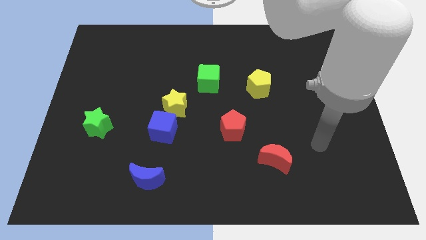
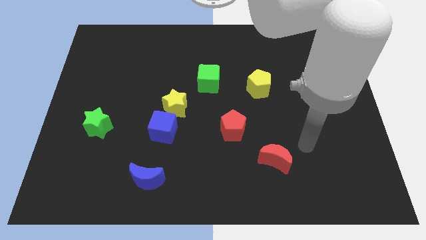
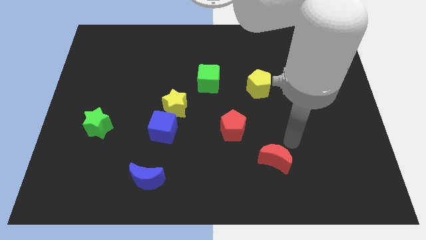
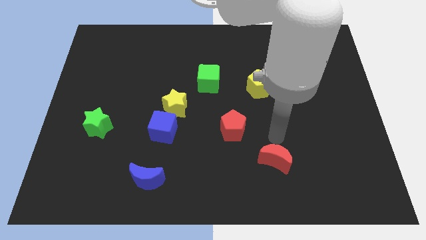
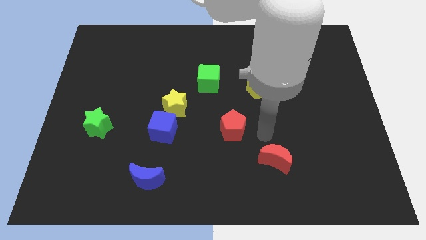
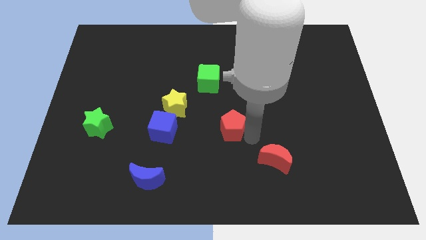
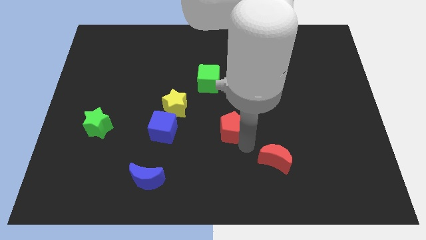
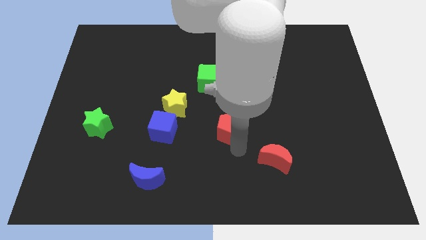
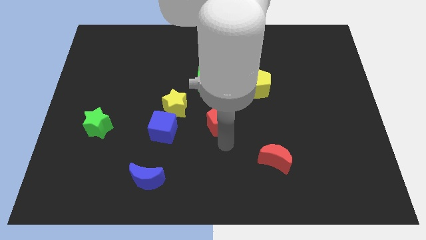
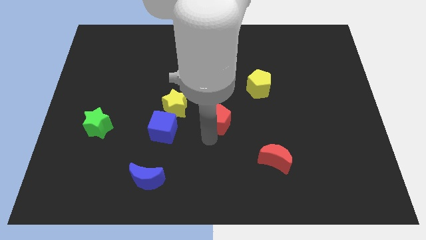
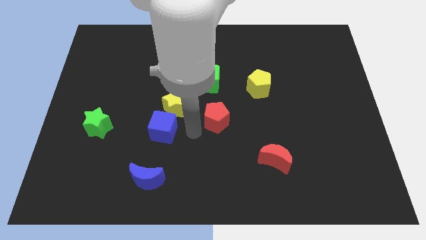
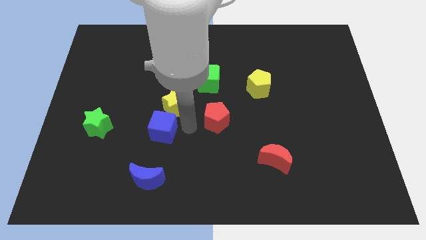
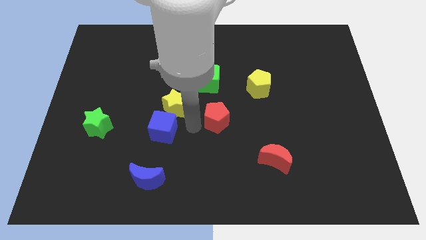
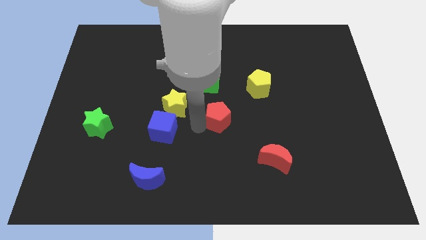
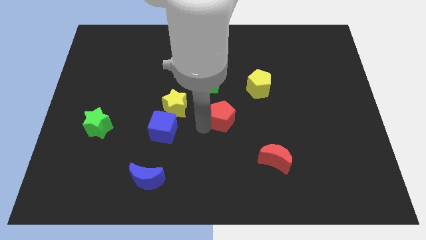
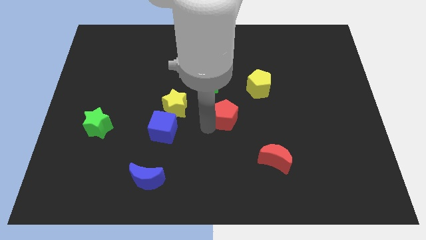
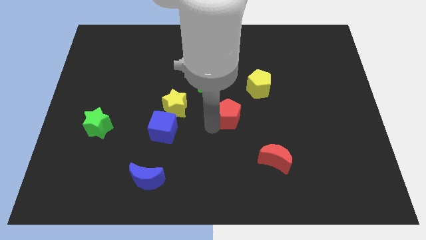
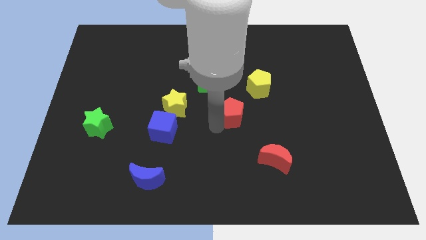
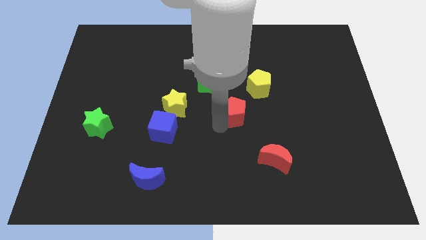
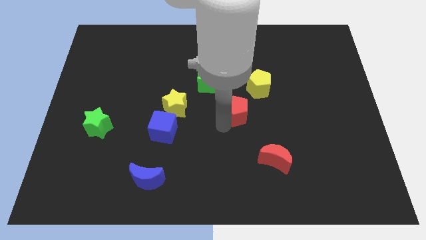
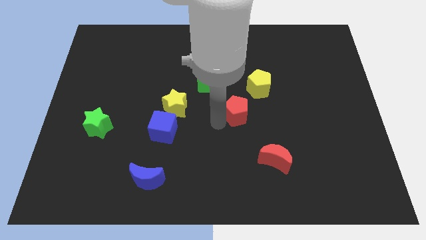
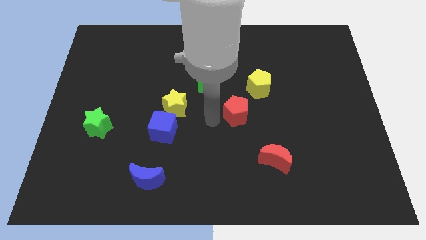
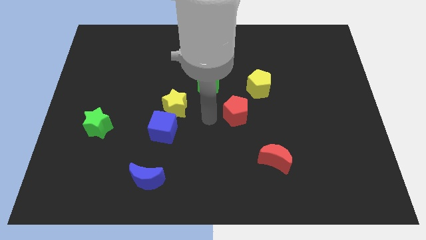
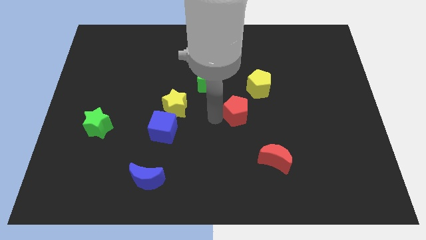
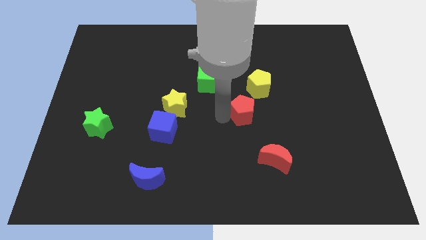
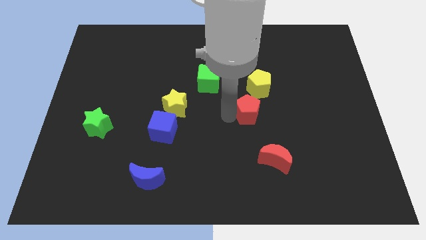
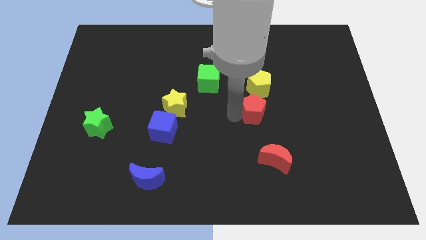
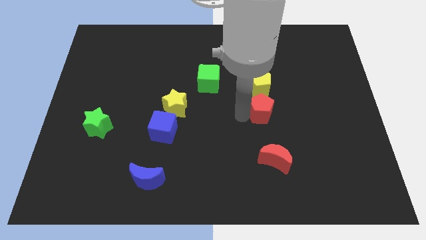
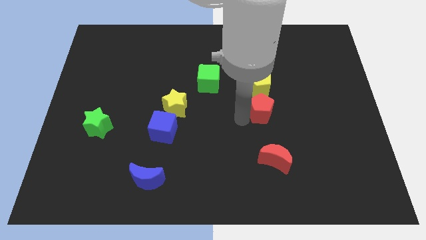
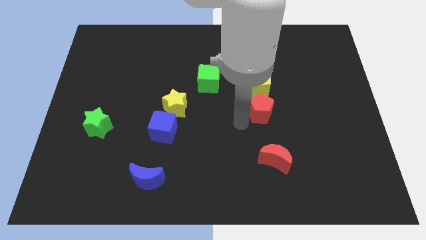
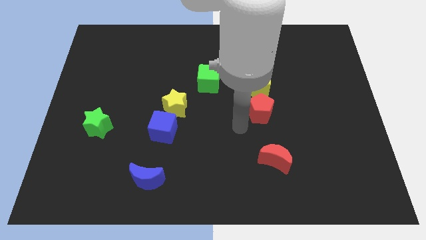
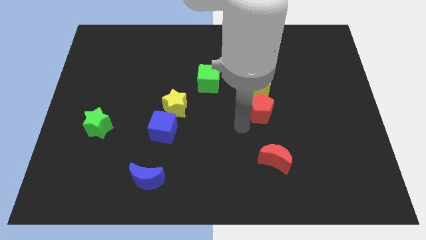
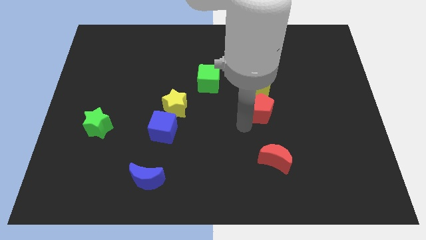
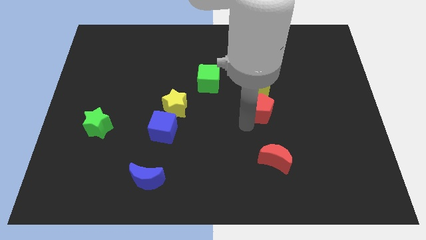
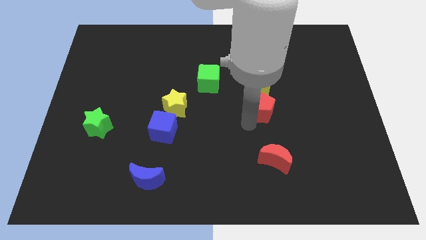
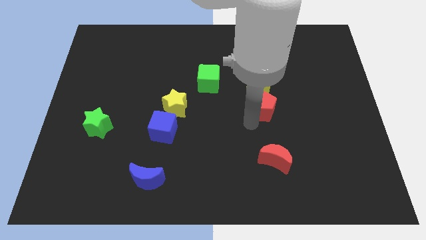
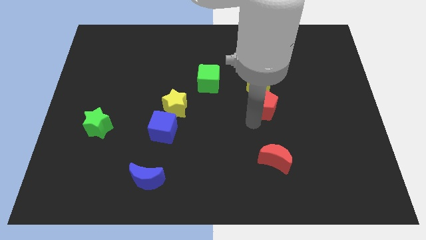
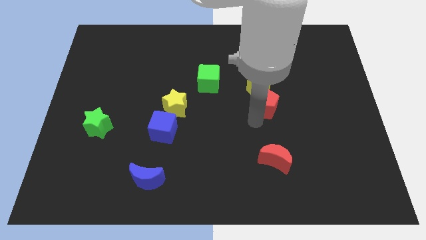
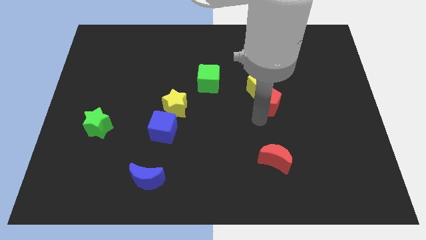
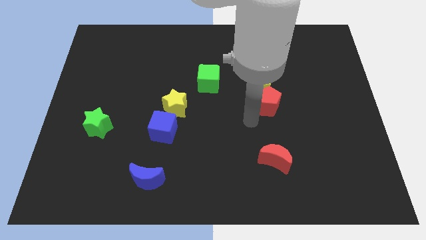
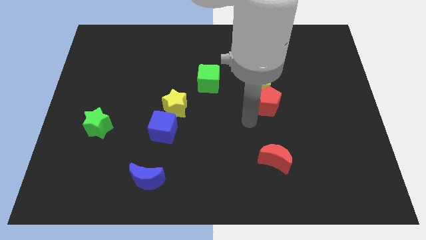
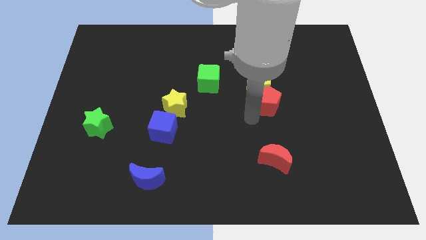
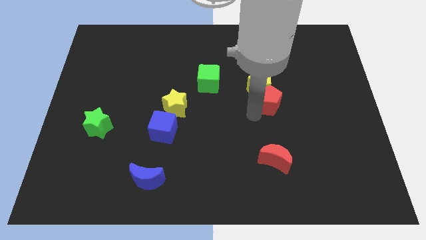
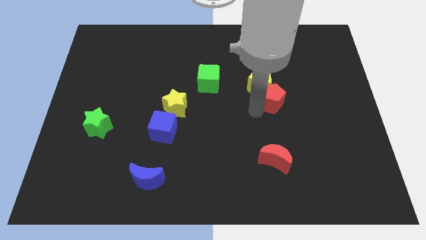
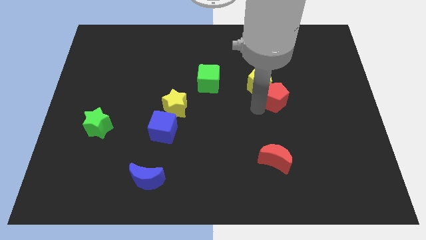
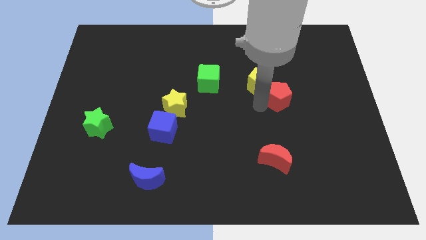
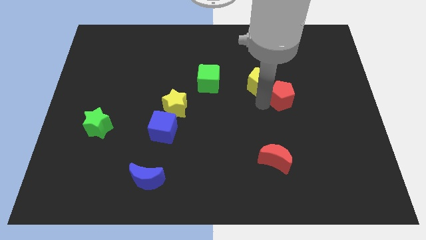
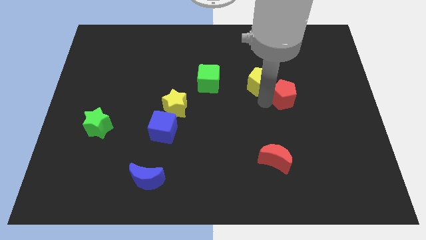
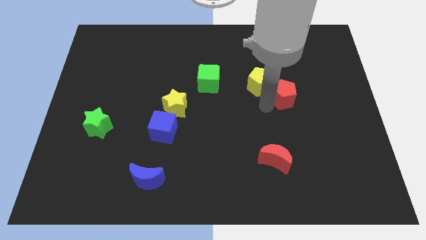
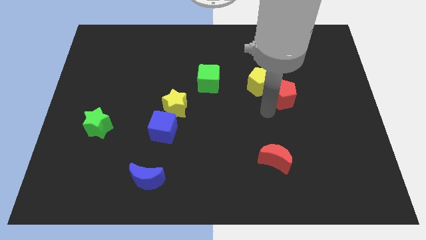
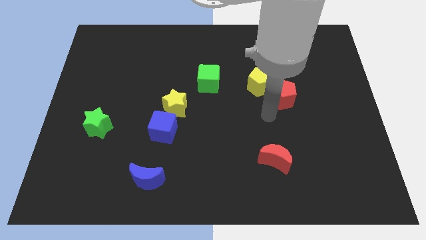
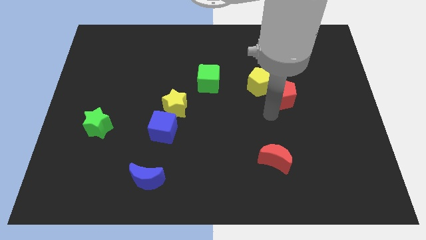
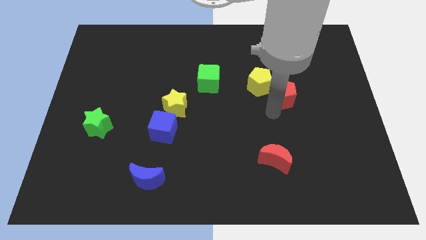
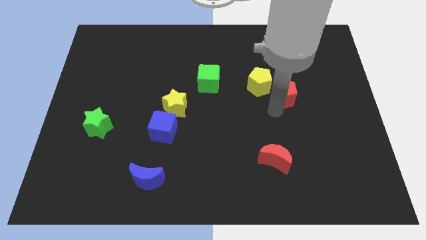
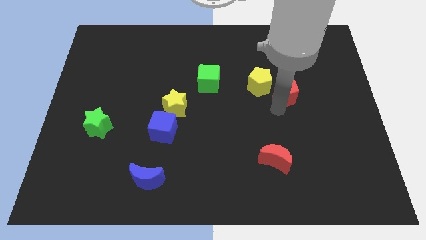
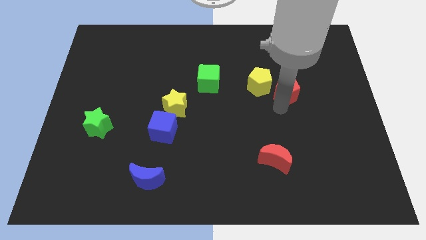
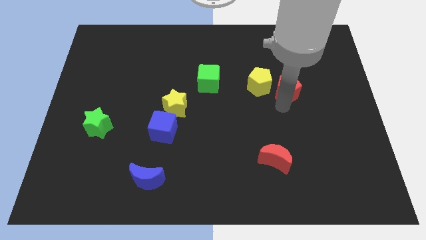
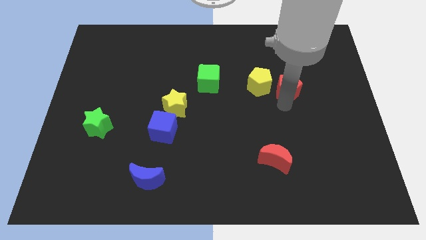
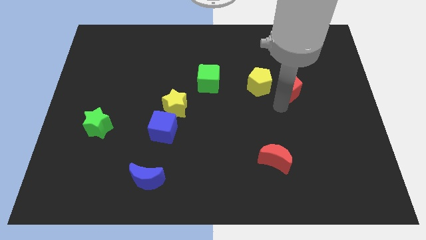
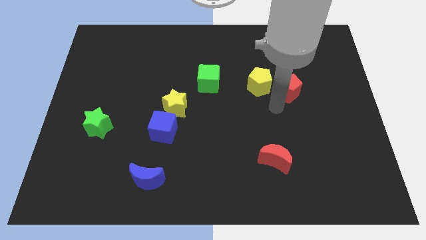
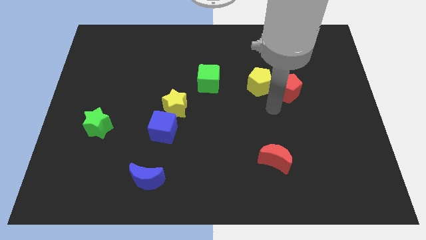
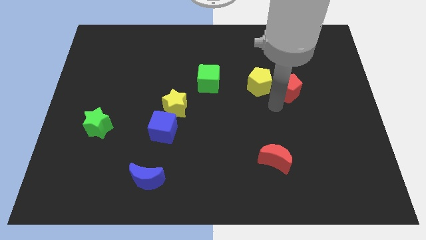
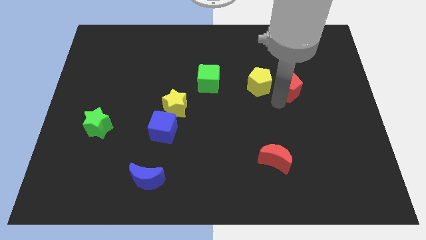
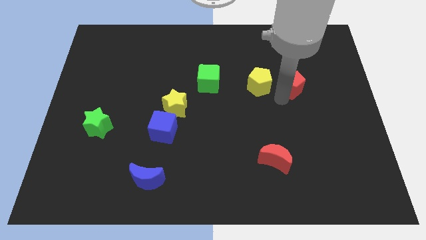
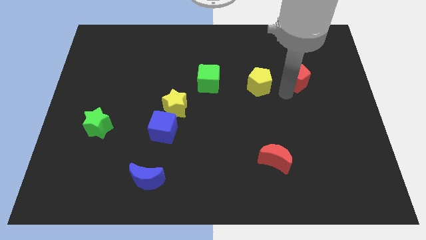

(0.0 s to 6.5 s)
move the red pentagon up and to the right

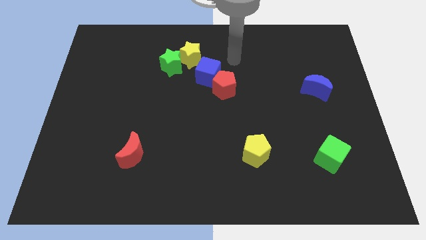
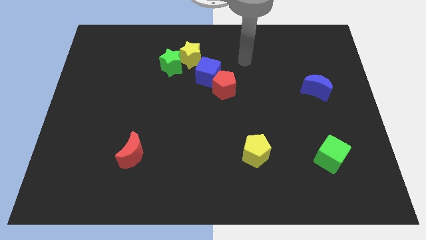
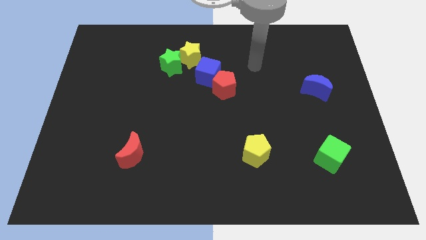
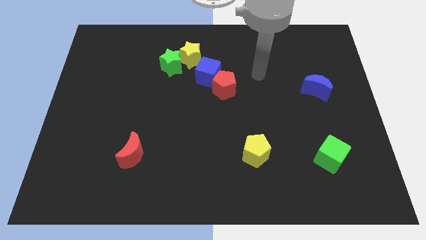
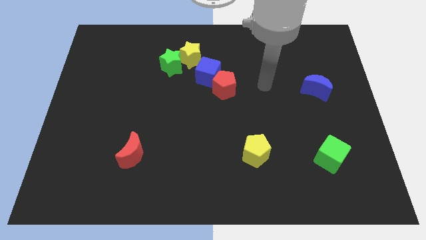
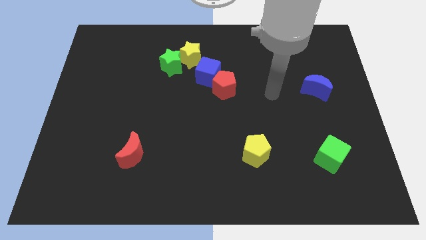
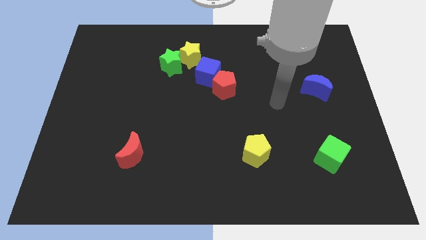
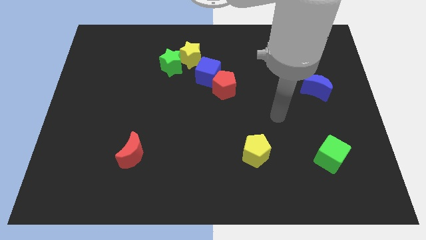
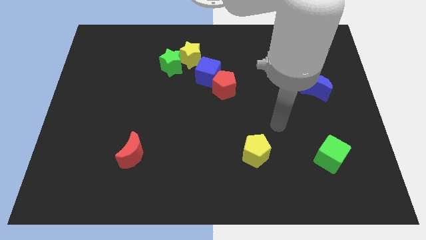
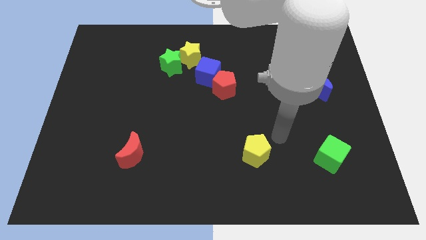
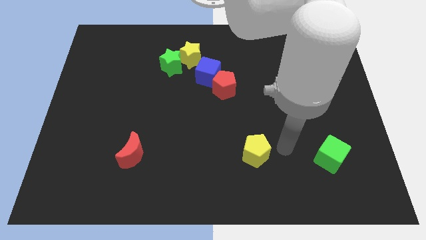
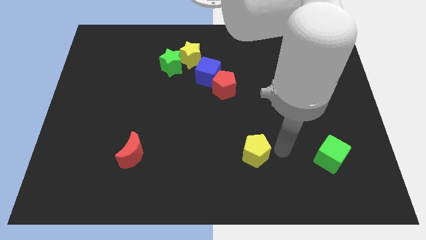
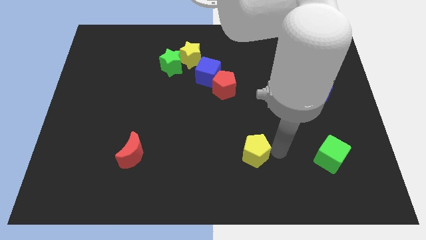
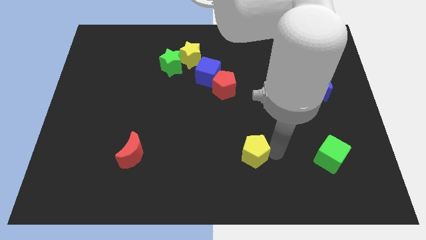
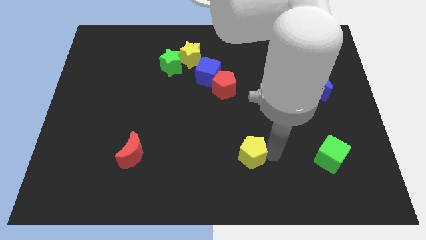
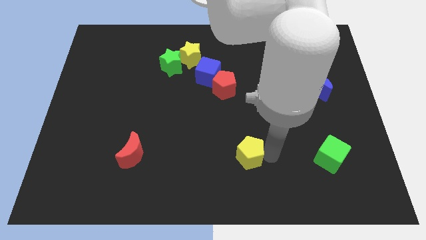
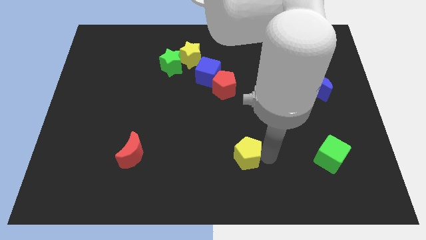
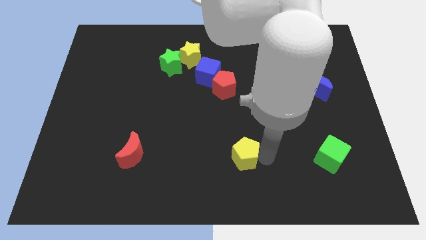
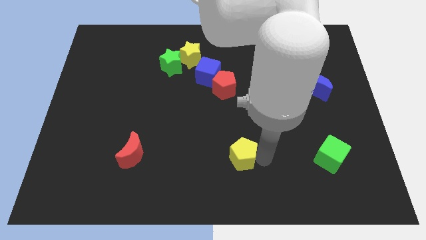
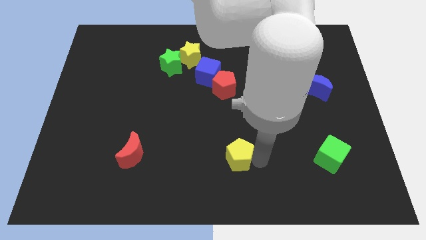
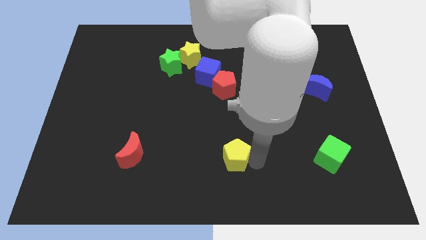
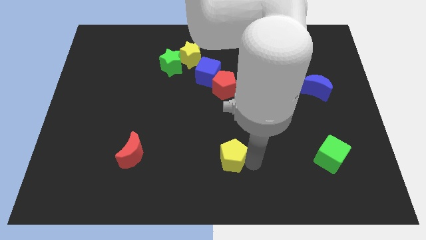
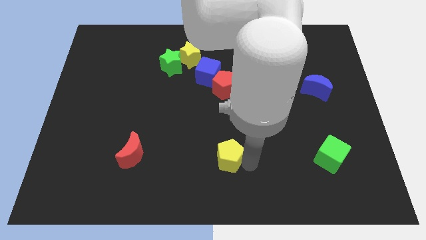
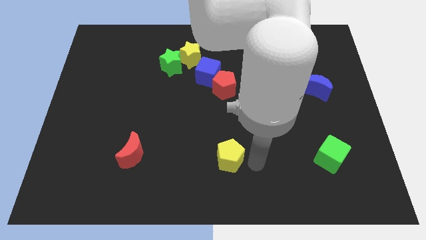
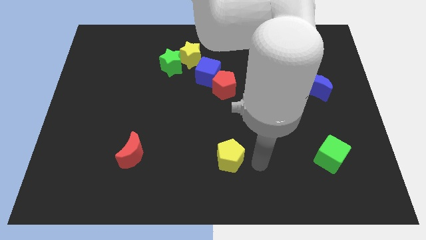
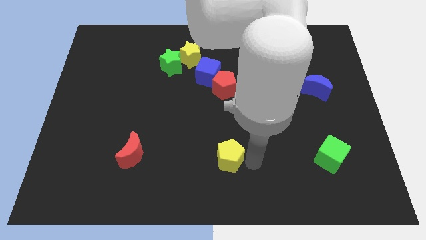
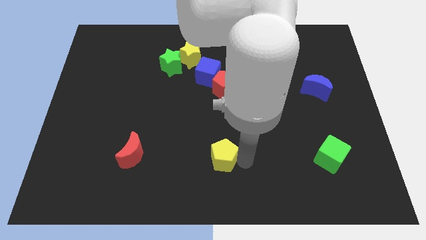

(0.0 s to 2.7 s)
slightly push the yellow pentagon to the left
